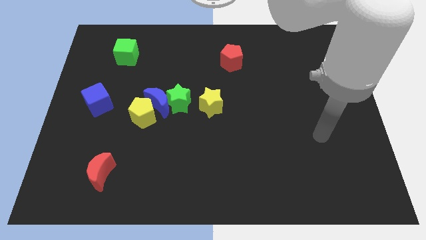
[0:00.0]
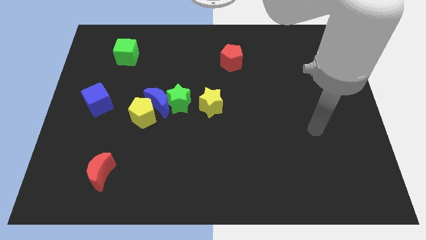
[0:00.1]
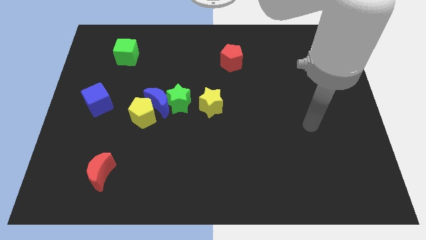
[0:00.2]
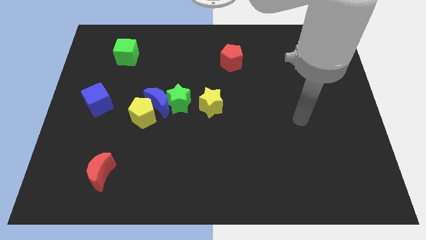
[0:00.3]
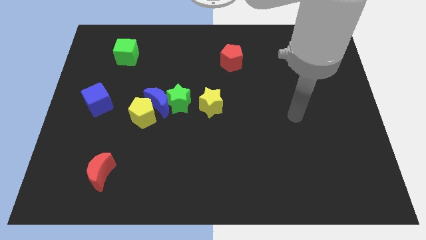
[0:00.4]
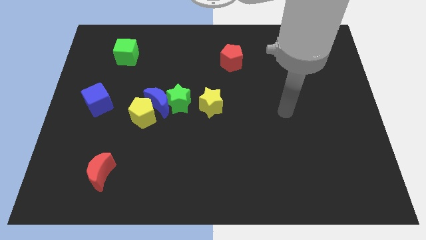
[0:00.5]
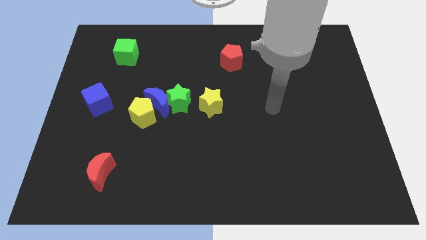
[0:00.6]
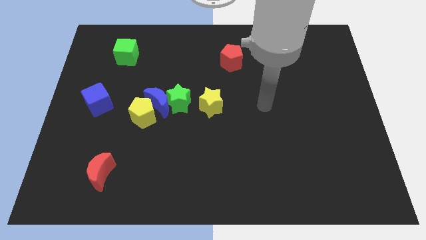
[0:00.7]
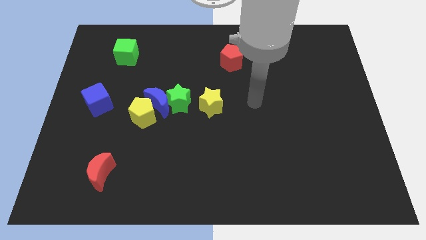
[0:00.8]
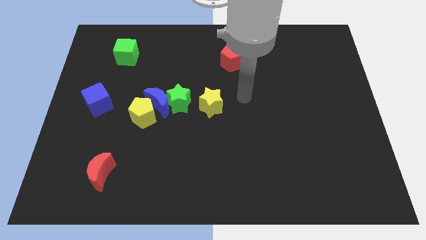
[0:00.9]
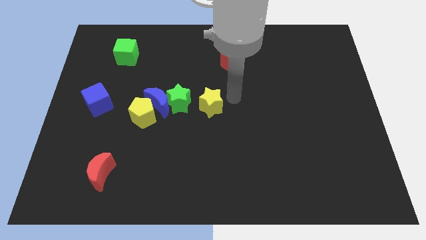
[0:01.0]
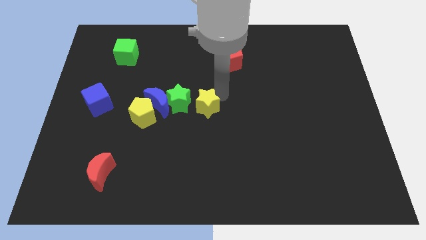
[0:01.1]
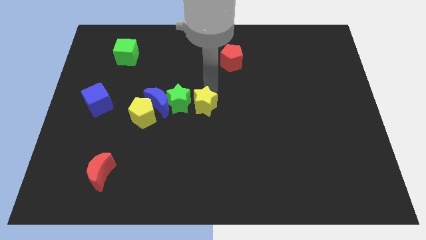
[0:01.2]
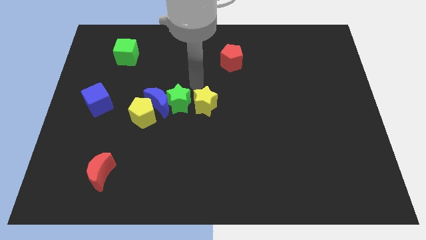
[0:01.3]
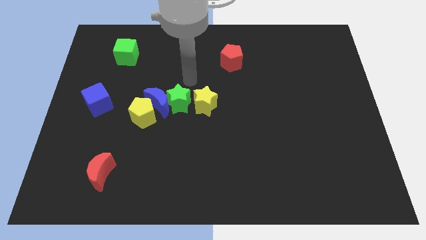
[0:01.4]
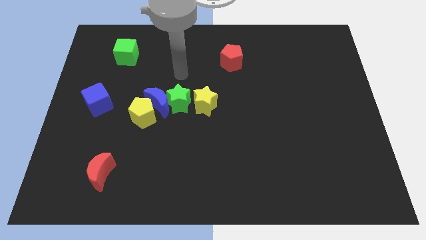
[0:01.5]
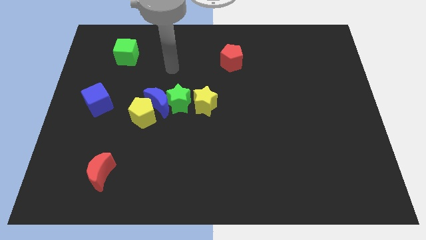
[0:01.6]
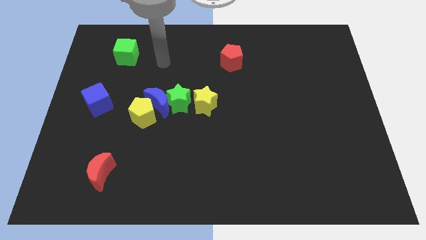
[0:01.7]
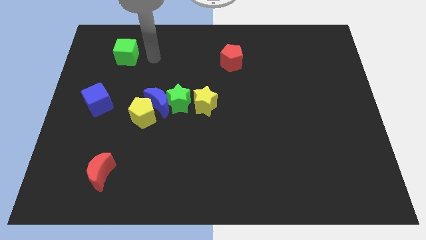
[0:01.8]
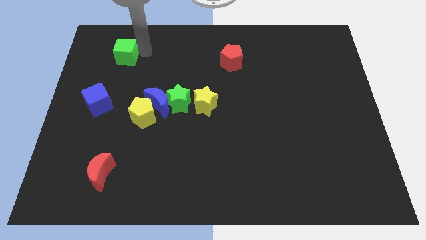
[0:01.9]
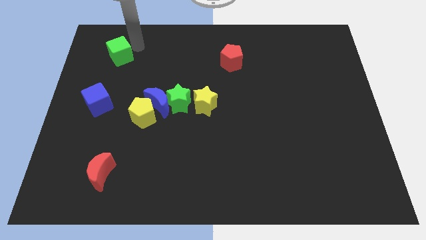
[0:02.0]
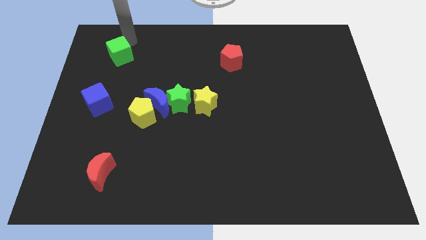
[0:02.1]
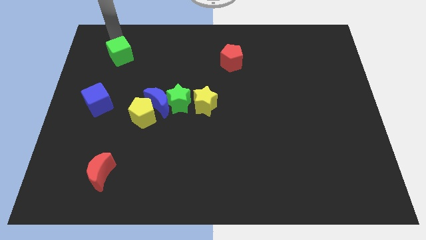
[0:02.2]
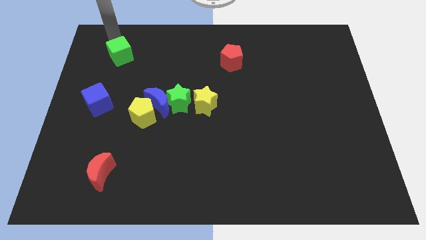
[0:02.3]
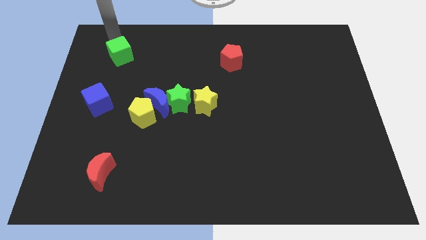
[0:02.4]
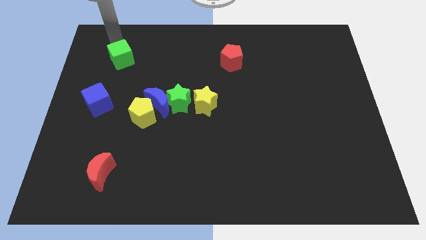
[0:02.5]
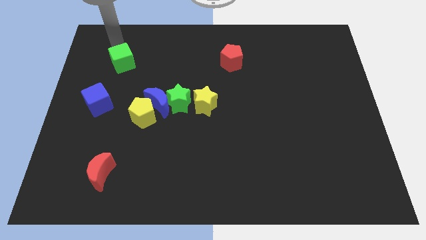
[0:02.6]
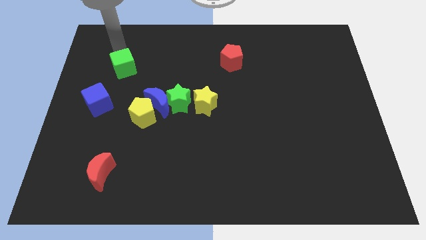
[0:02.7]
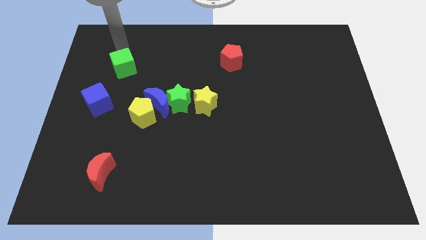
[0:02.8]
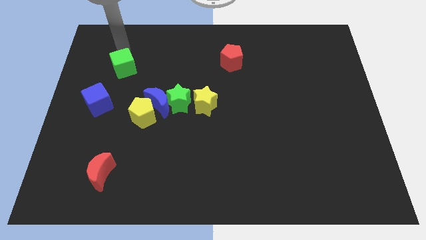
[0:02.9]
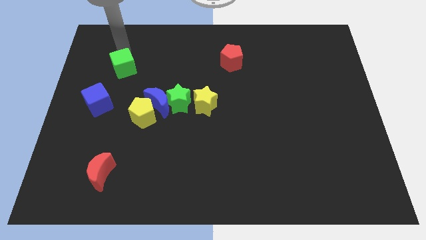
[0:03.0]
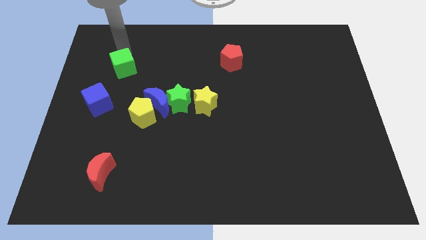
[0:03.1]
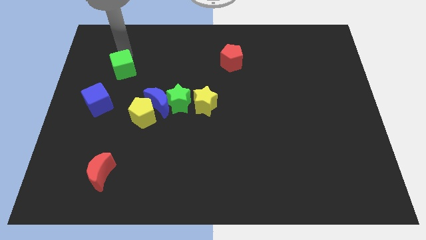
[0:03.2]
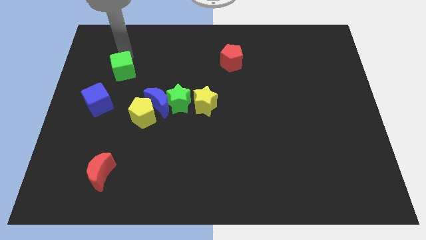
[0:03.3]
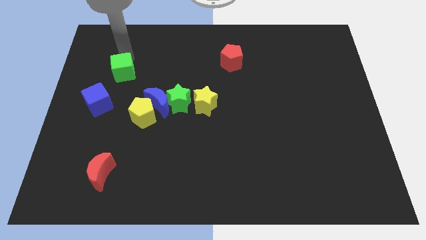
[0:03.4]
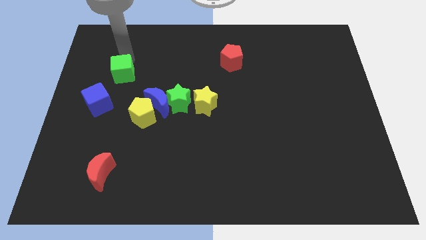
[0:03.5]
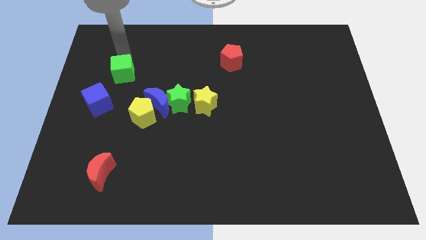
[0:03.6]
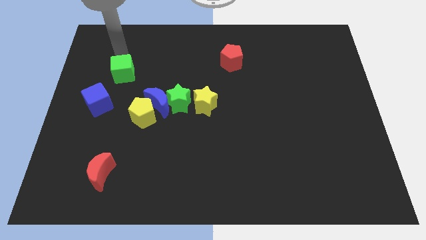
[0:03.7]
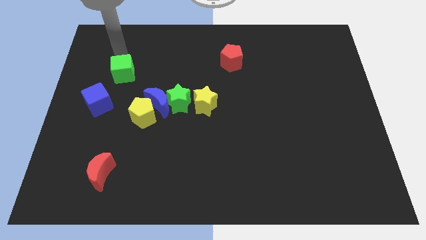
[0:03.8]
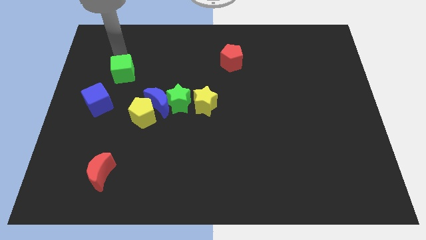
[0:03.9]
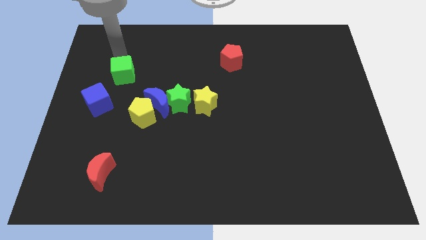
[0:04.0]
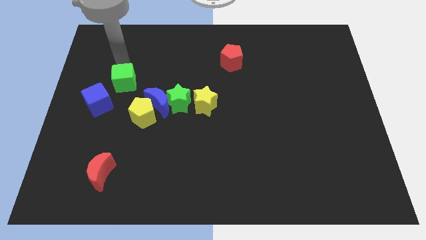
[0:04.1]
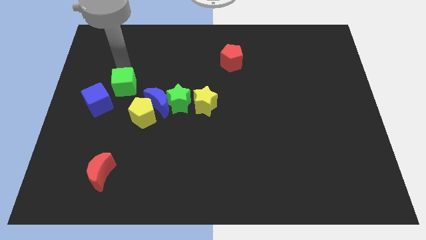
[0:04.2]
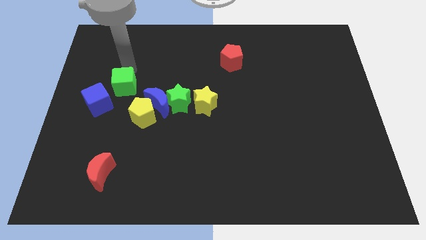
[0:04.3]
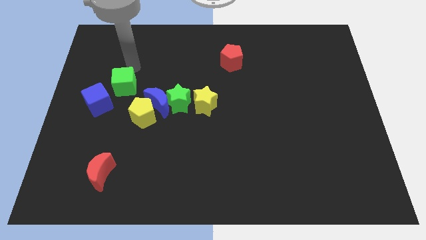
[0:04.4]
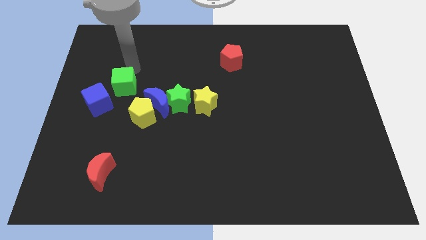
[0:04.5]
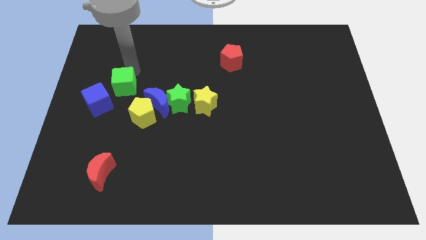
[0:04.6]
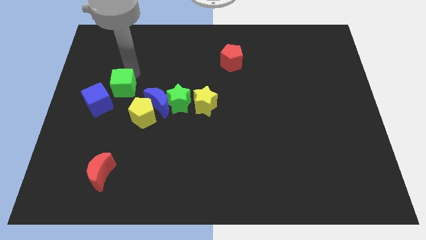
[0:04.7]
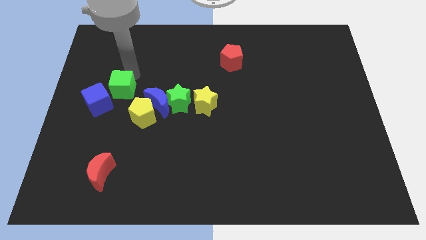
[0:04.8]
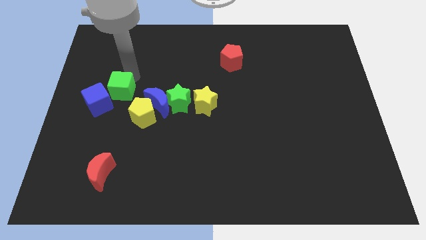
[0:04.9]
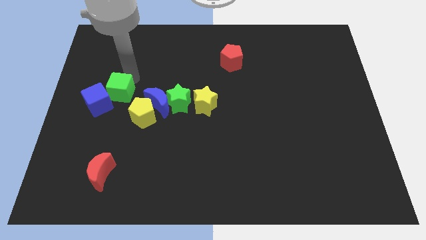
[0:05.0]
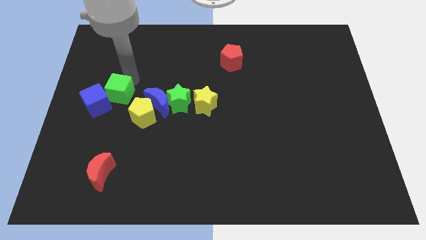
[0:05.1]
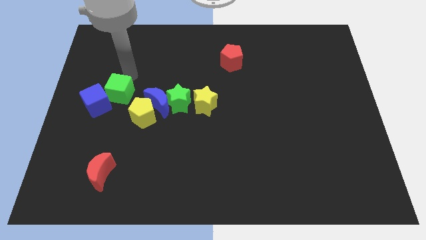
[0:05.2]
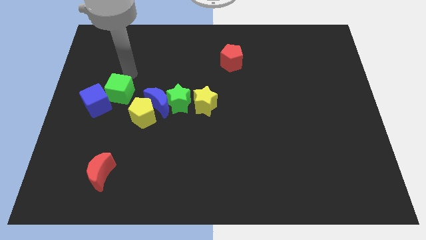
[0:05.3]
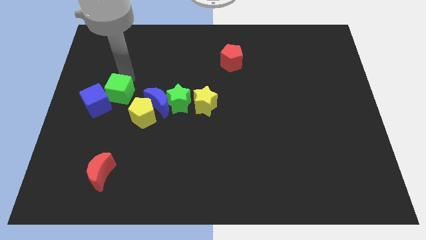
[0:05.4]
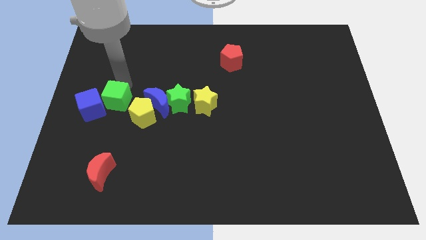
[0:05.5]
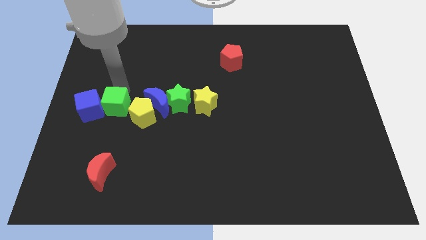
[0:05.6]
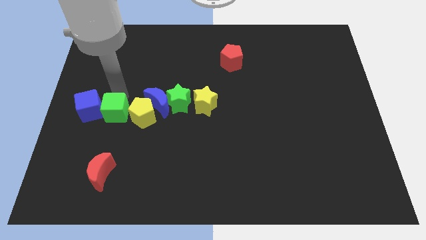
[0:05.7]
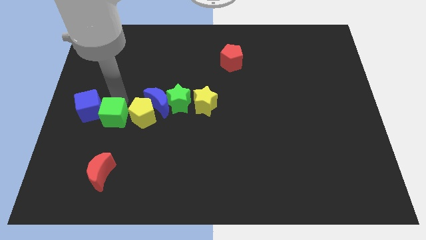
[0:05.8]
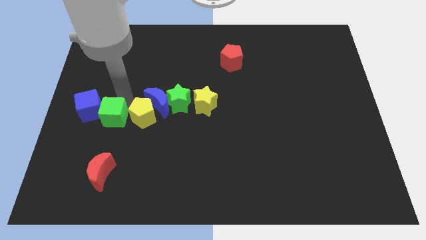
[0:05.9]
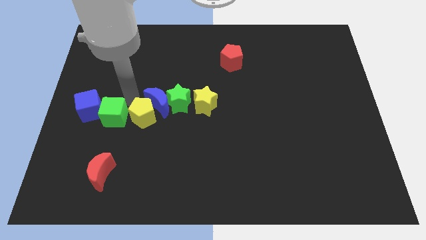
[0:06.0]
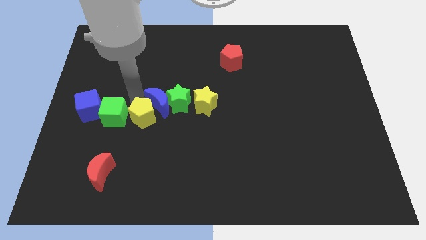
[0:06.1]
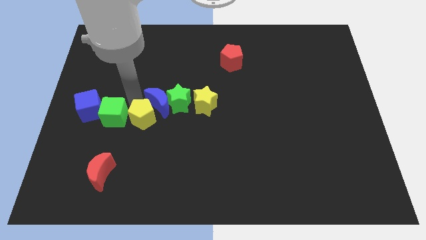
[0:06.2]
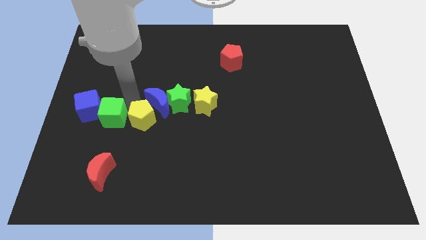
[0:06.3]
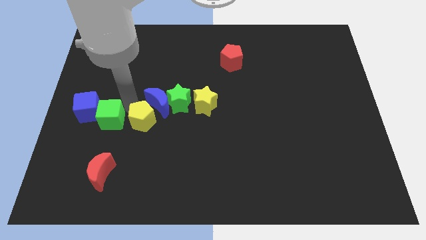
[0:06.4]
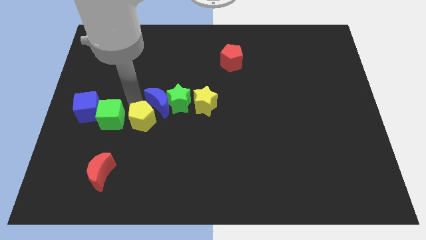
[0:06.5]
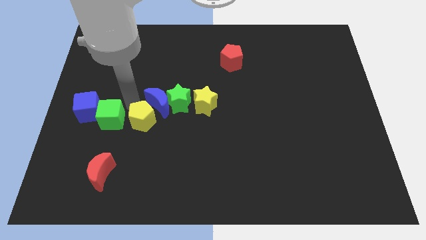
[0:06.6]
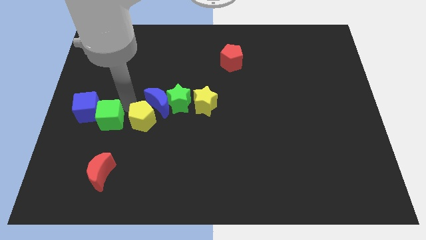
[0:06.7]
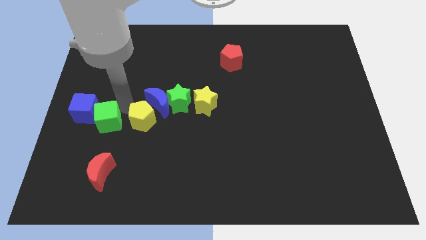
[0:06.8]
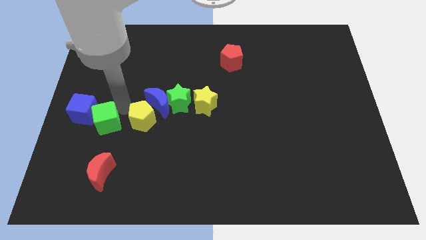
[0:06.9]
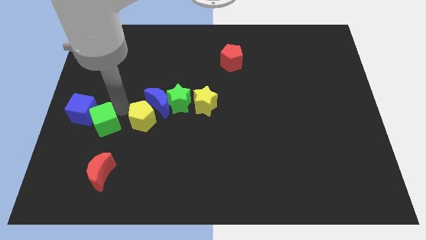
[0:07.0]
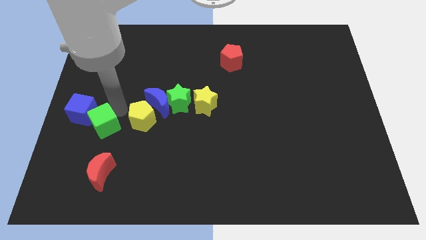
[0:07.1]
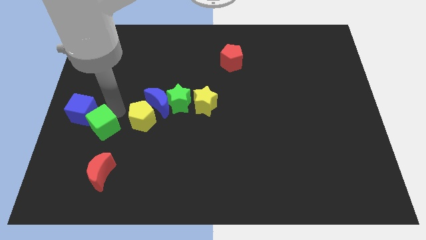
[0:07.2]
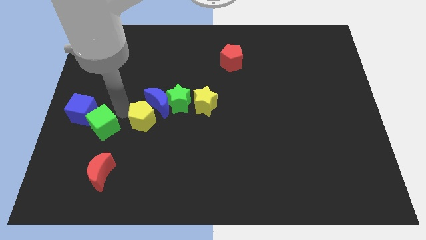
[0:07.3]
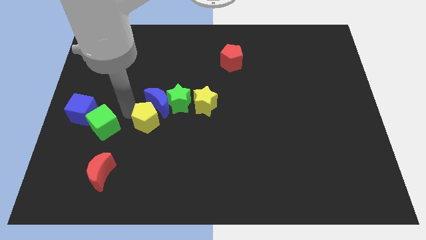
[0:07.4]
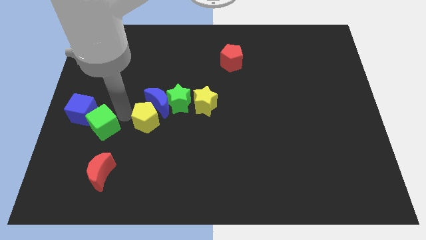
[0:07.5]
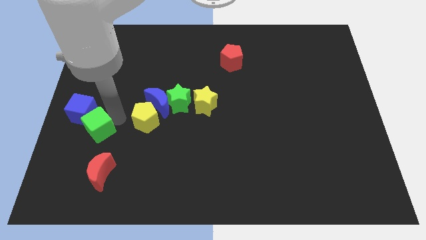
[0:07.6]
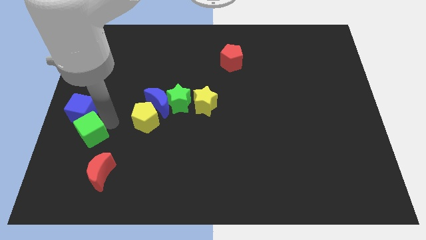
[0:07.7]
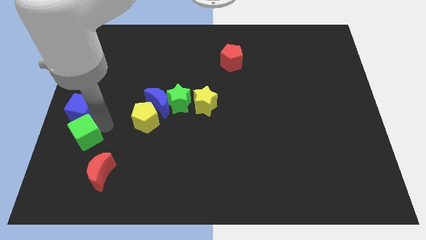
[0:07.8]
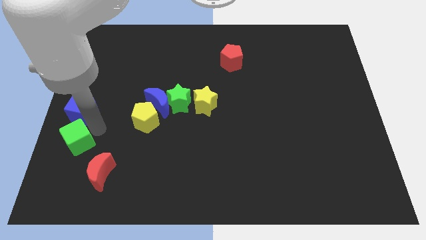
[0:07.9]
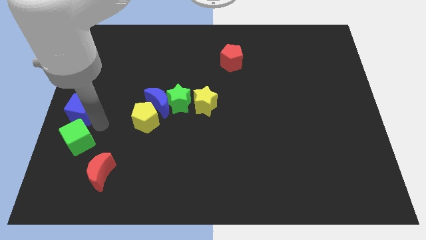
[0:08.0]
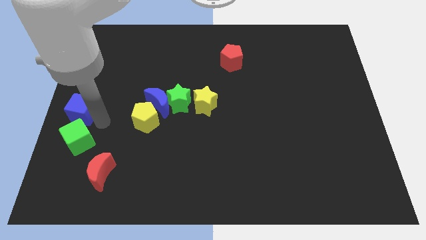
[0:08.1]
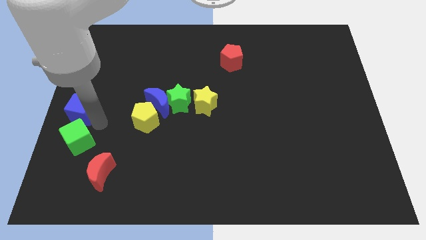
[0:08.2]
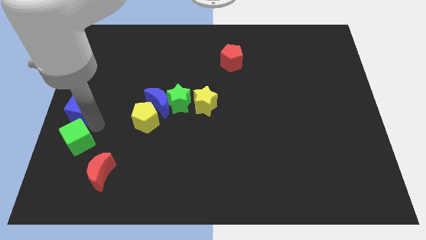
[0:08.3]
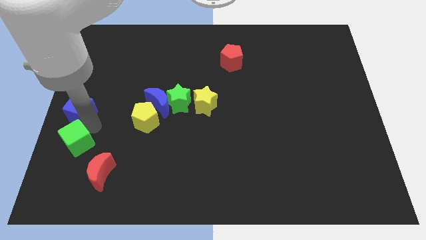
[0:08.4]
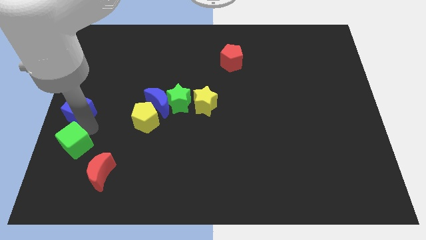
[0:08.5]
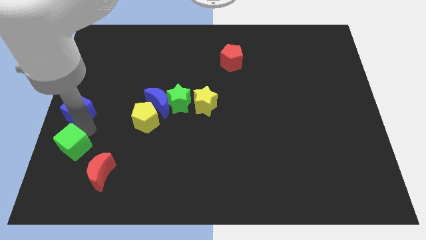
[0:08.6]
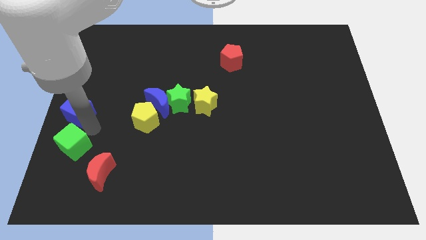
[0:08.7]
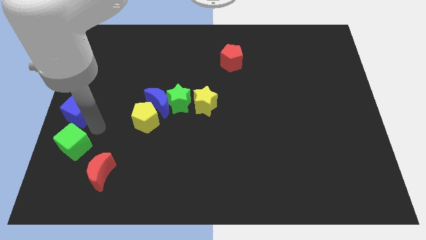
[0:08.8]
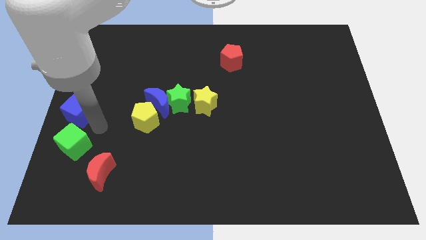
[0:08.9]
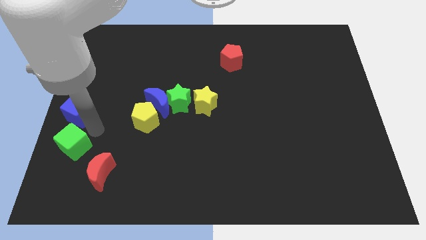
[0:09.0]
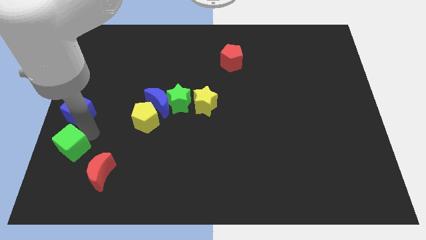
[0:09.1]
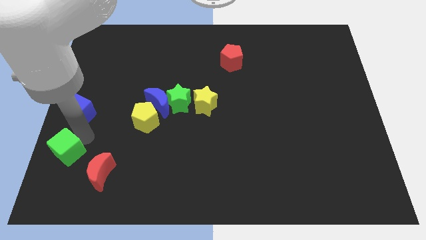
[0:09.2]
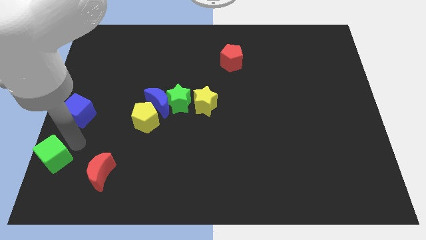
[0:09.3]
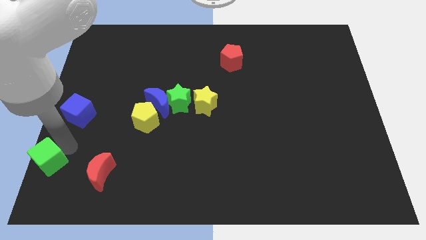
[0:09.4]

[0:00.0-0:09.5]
slide the green cube to the bottom left corner
